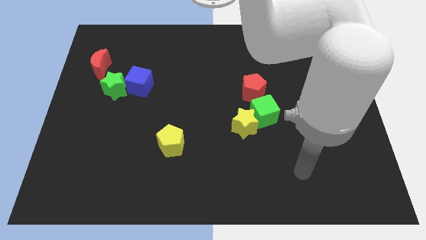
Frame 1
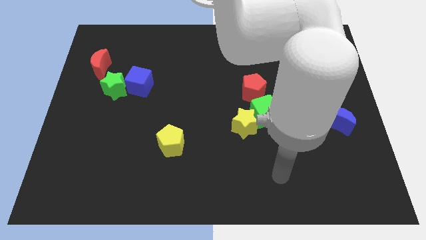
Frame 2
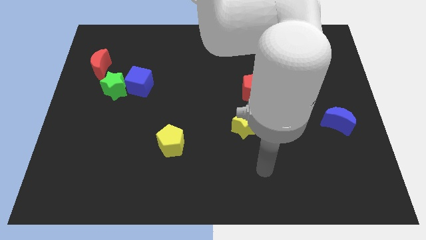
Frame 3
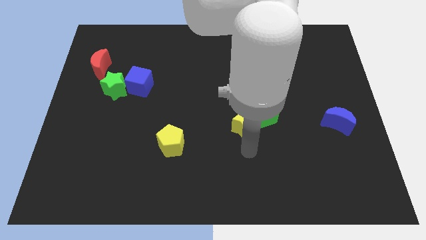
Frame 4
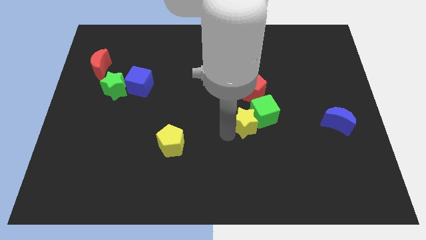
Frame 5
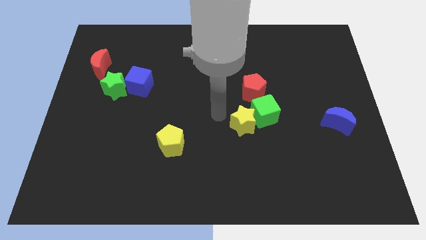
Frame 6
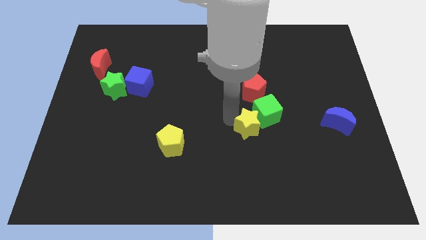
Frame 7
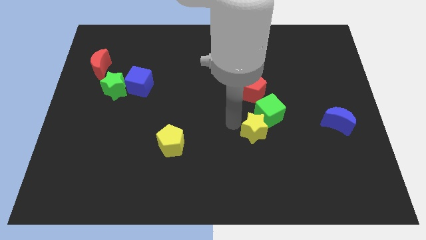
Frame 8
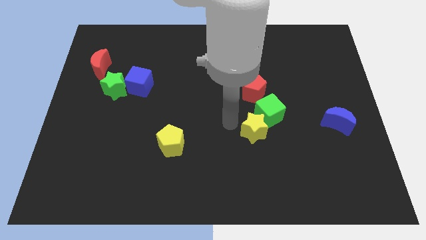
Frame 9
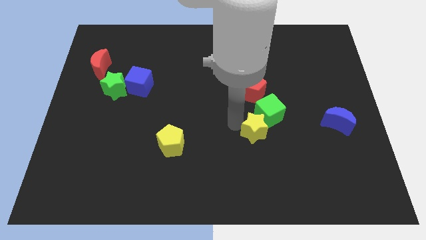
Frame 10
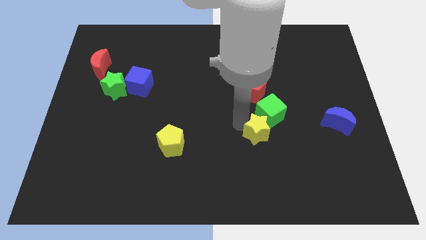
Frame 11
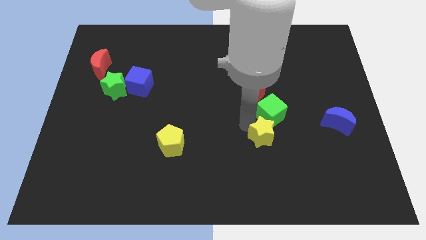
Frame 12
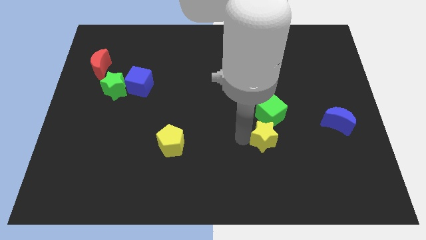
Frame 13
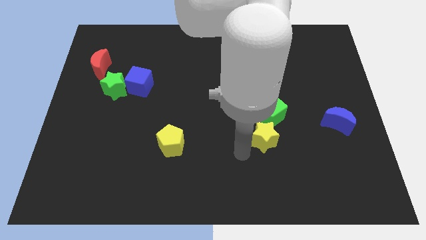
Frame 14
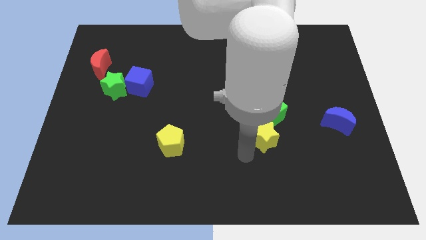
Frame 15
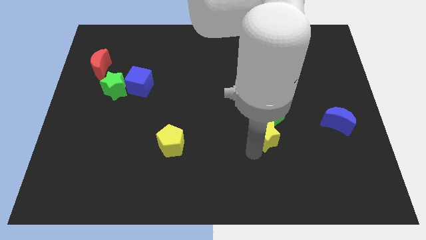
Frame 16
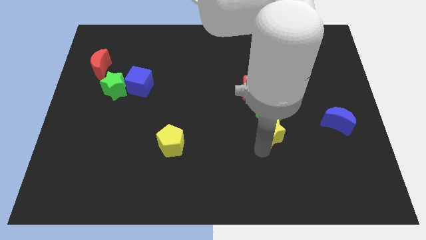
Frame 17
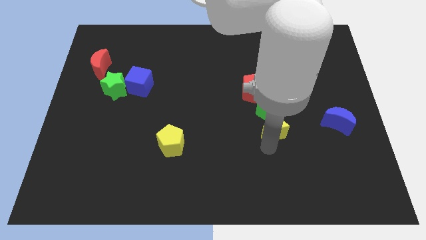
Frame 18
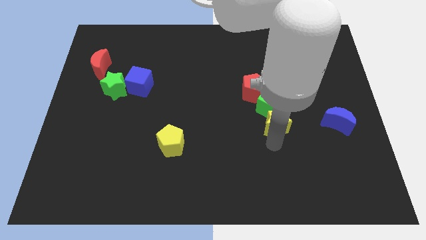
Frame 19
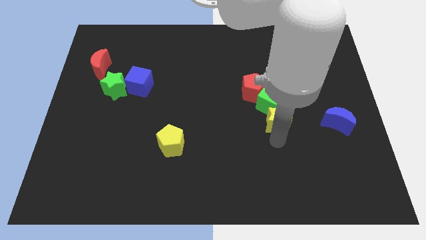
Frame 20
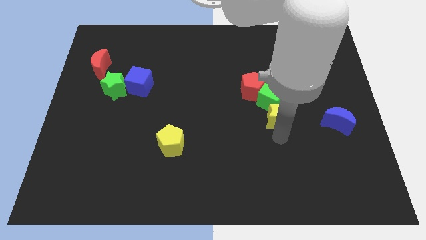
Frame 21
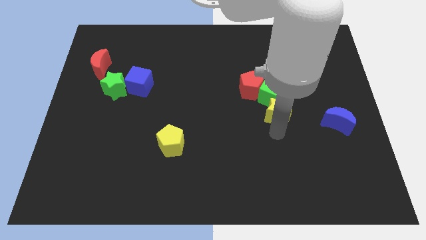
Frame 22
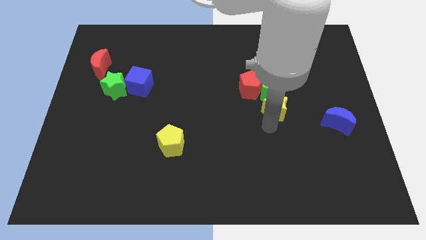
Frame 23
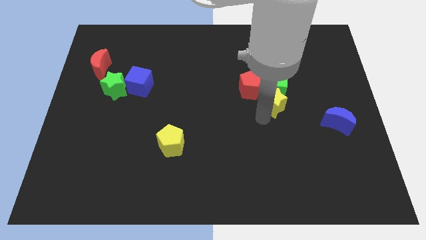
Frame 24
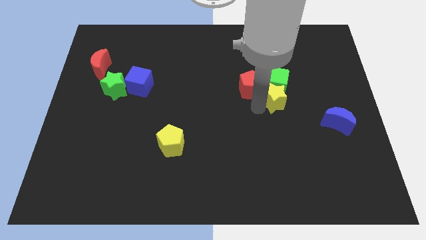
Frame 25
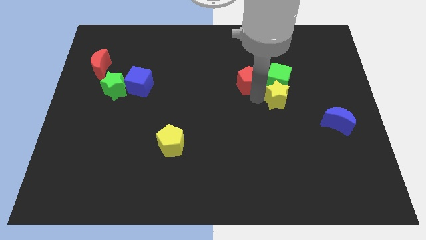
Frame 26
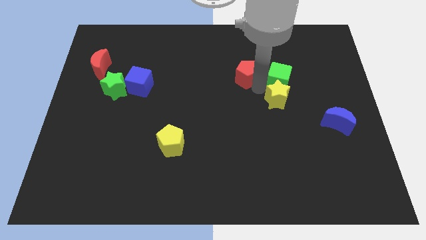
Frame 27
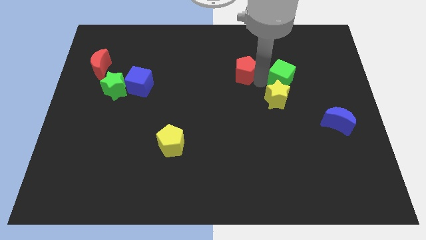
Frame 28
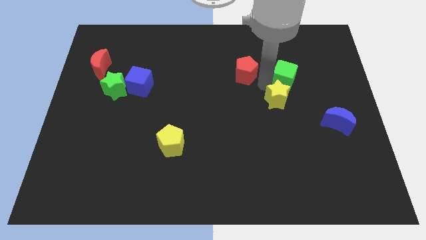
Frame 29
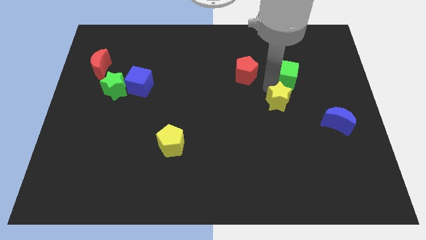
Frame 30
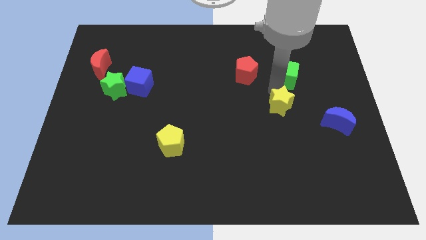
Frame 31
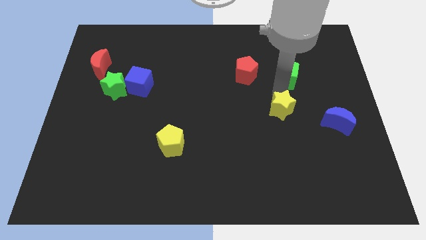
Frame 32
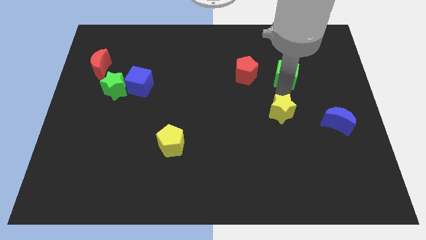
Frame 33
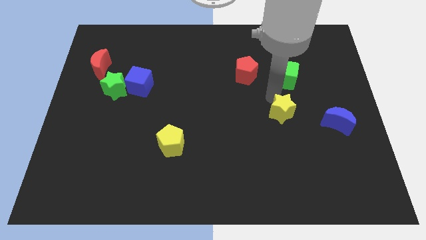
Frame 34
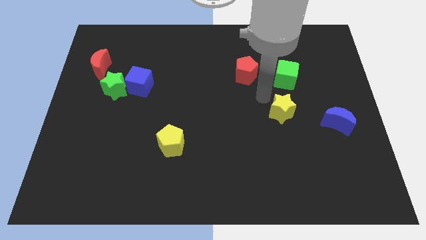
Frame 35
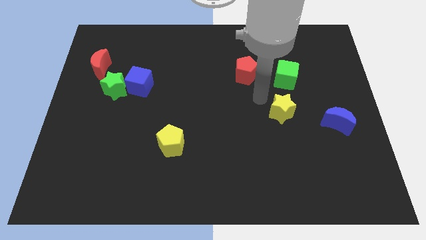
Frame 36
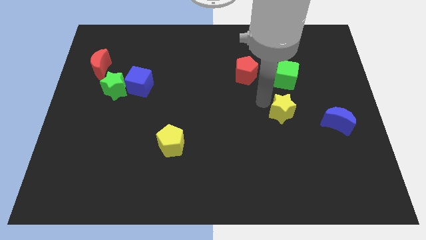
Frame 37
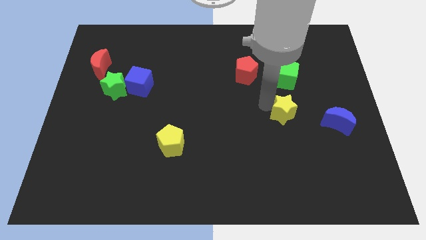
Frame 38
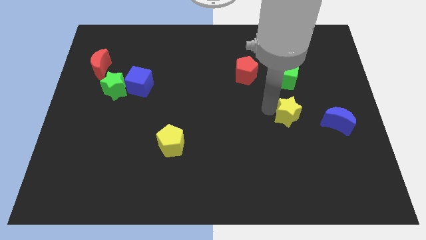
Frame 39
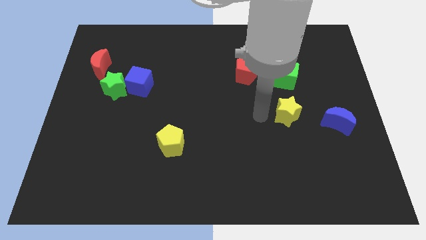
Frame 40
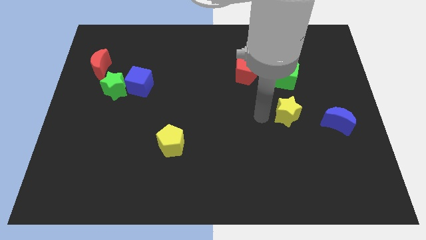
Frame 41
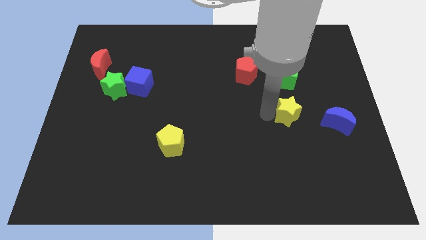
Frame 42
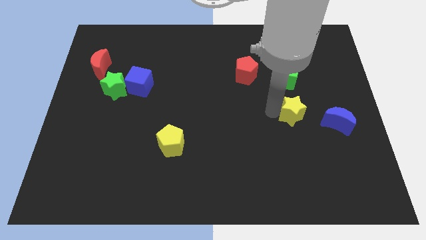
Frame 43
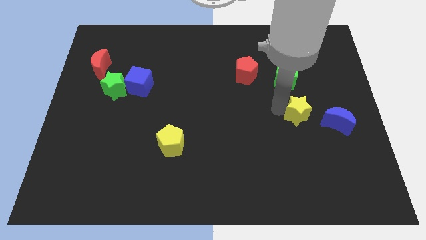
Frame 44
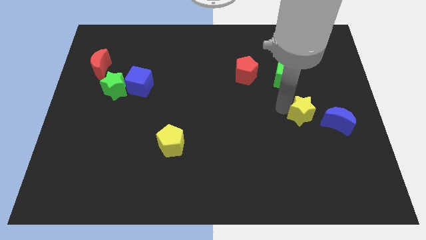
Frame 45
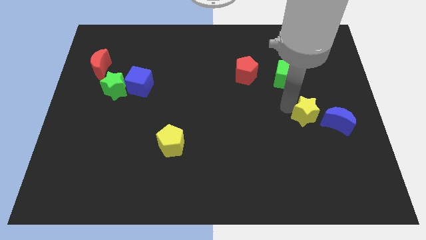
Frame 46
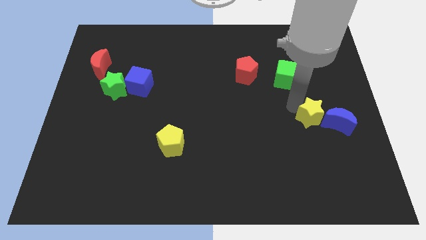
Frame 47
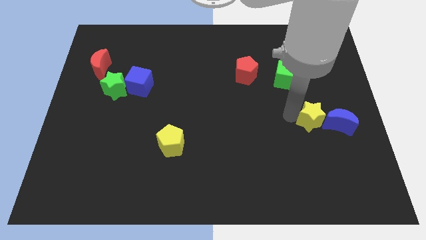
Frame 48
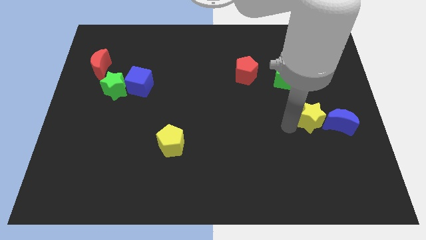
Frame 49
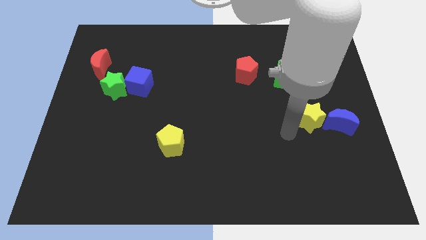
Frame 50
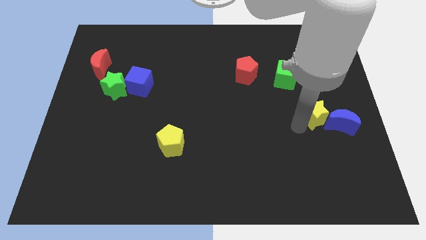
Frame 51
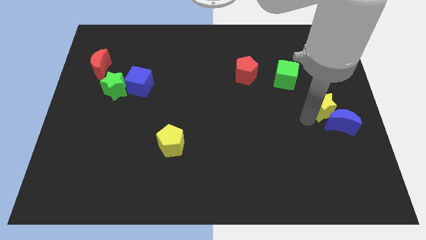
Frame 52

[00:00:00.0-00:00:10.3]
slide the yellow star to the right side of the board

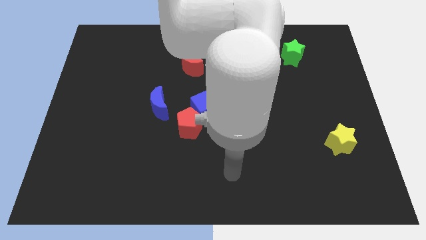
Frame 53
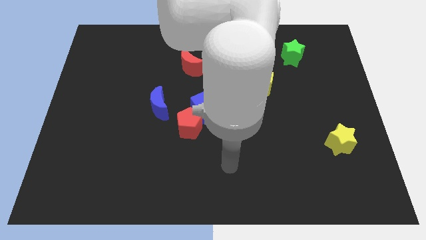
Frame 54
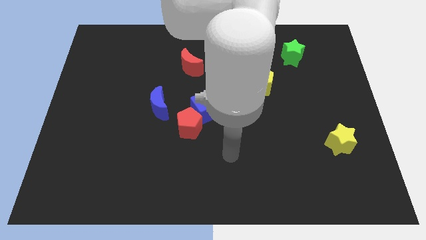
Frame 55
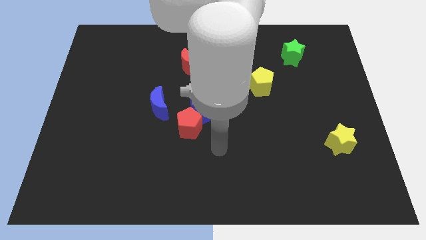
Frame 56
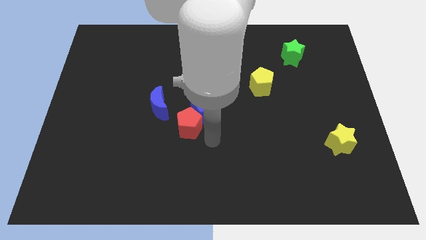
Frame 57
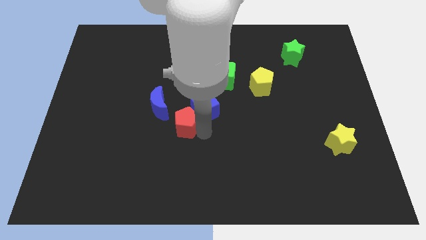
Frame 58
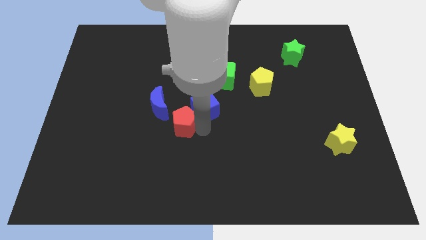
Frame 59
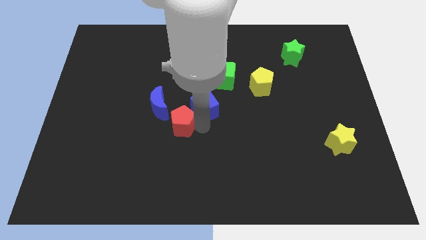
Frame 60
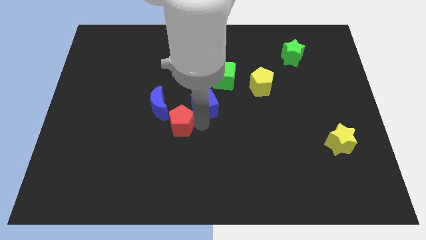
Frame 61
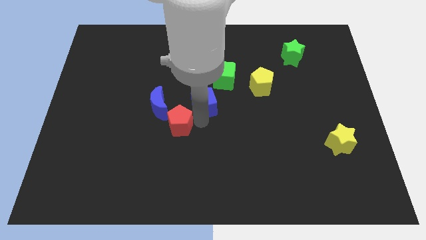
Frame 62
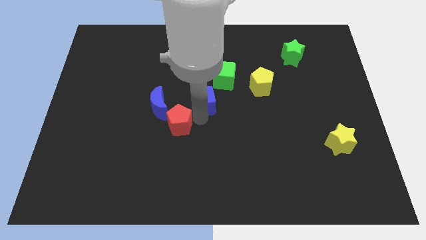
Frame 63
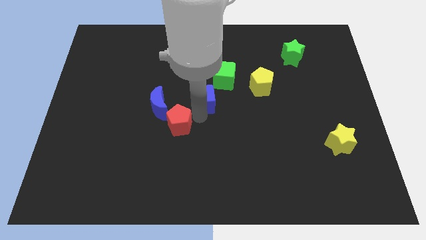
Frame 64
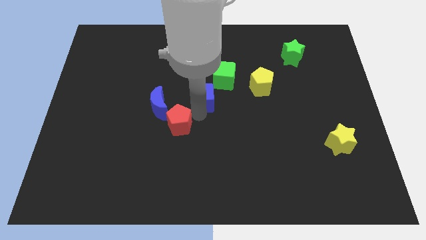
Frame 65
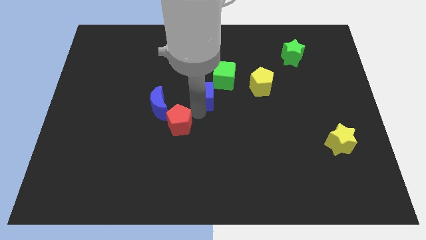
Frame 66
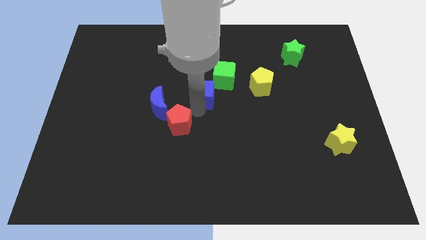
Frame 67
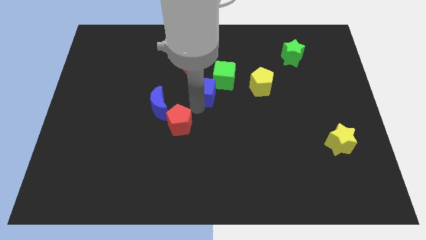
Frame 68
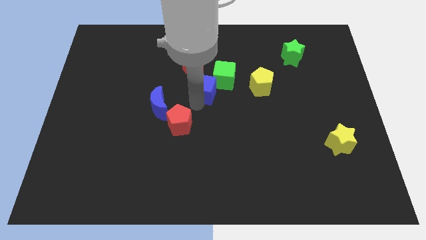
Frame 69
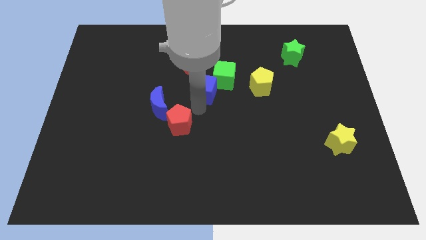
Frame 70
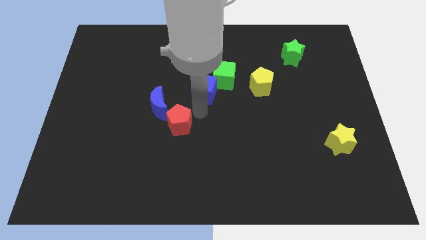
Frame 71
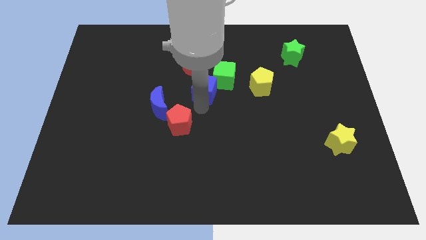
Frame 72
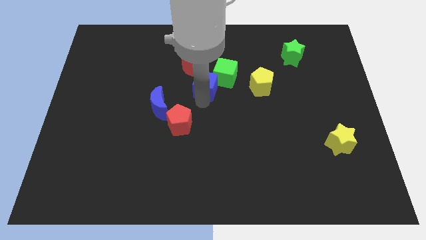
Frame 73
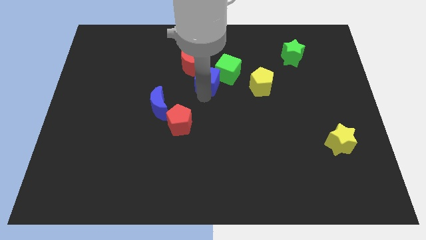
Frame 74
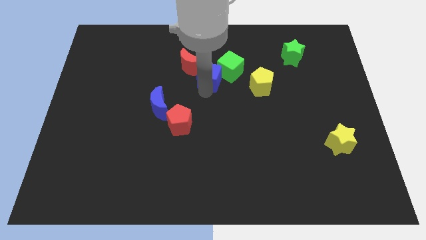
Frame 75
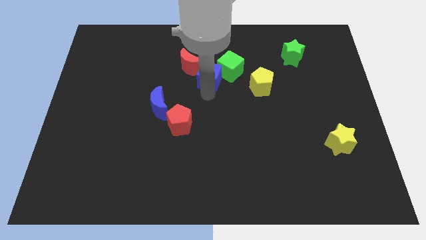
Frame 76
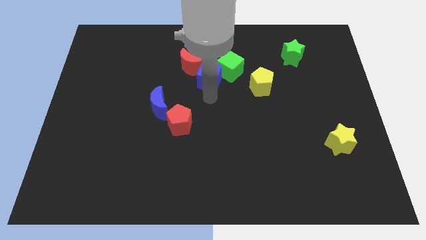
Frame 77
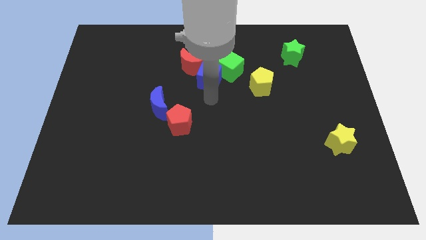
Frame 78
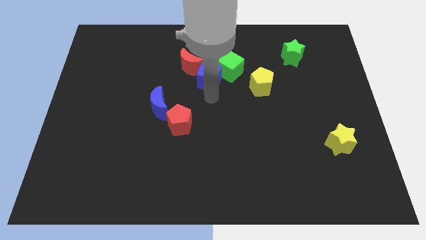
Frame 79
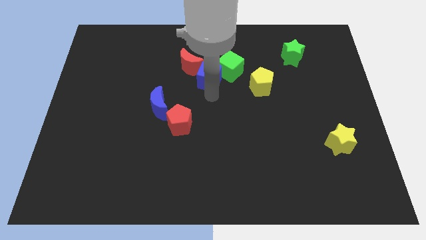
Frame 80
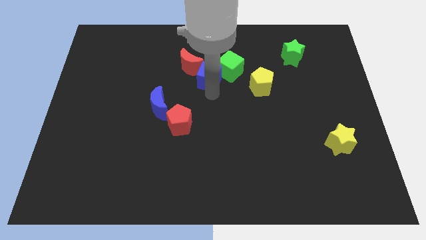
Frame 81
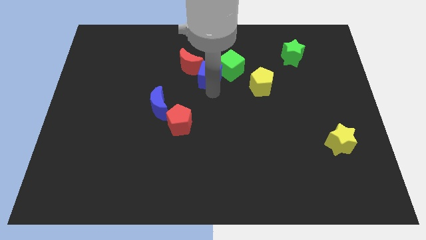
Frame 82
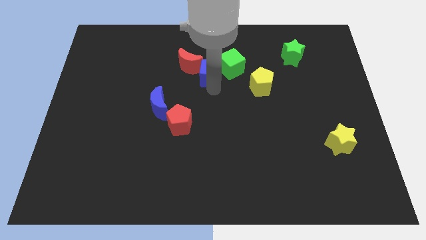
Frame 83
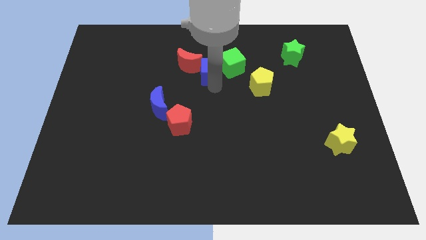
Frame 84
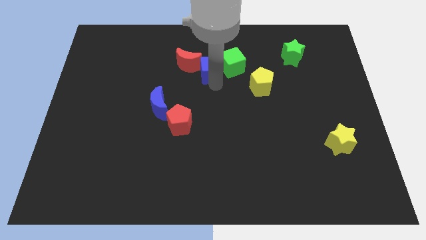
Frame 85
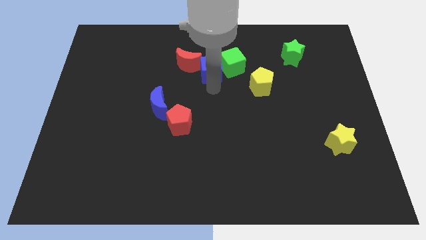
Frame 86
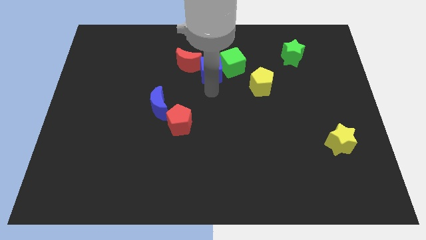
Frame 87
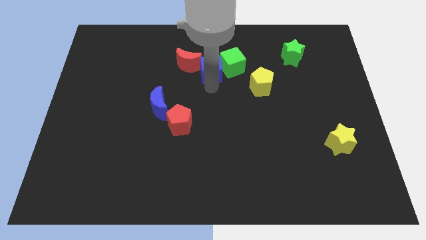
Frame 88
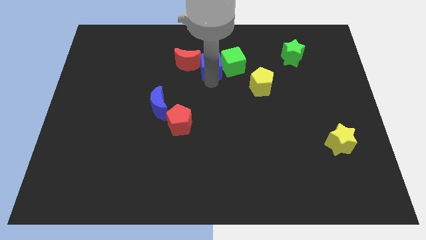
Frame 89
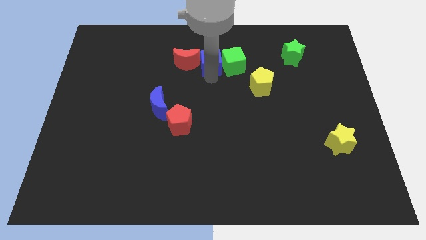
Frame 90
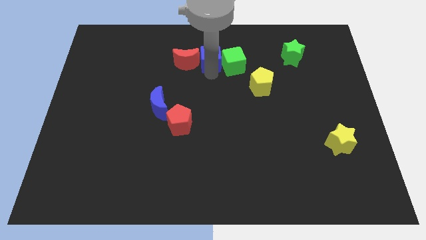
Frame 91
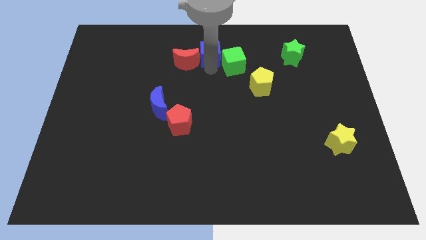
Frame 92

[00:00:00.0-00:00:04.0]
push the blue cube to the top
